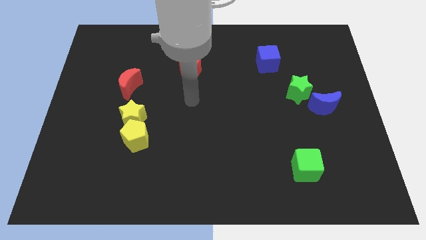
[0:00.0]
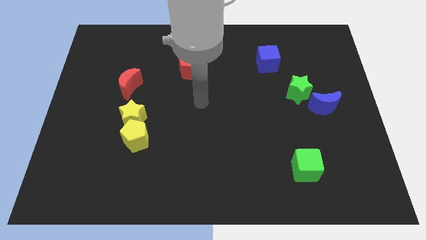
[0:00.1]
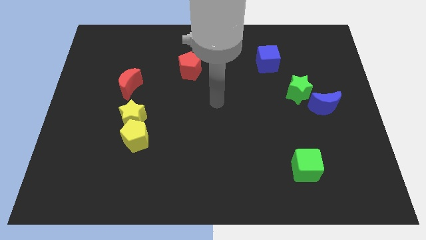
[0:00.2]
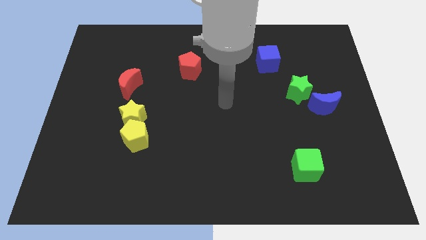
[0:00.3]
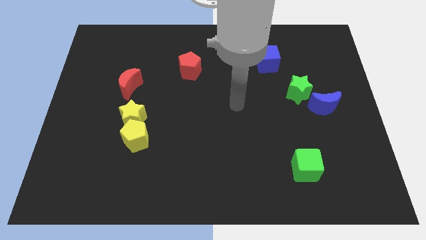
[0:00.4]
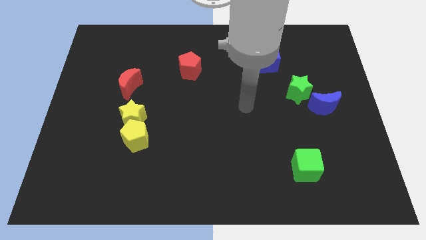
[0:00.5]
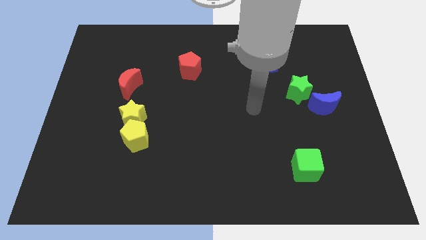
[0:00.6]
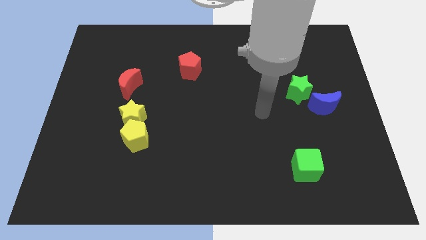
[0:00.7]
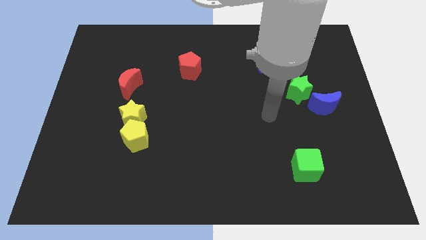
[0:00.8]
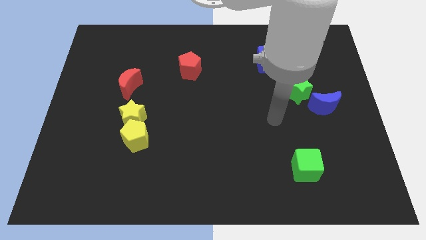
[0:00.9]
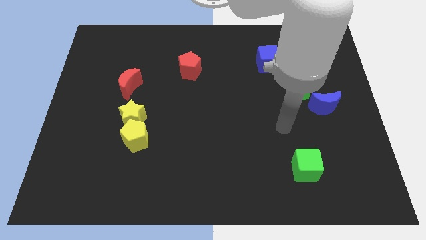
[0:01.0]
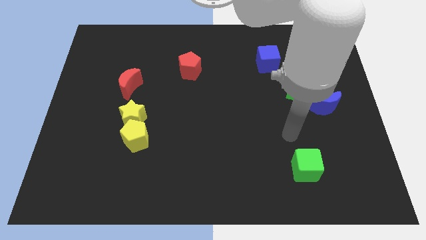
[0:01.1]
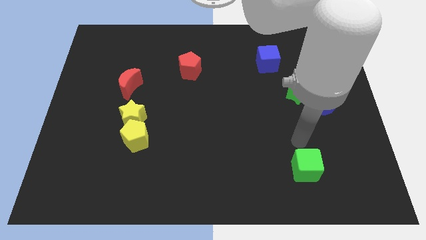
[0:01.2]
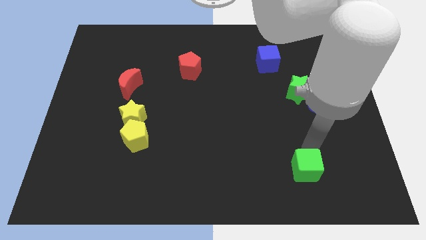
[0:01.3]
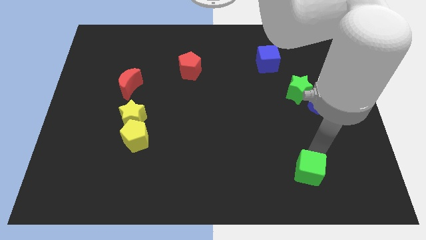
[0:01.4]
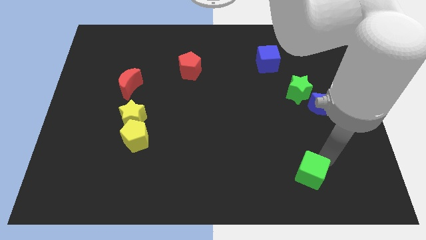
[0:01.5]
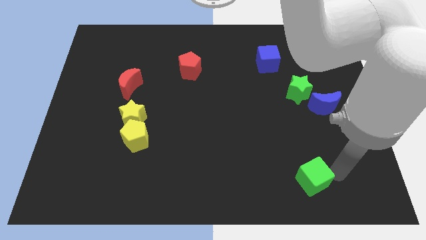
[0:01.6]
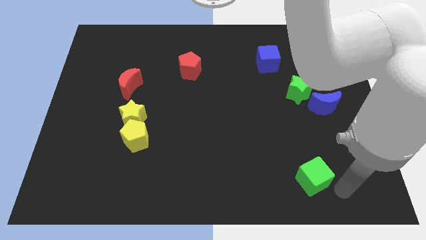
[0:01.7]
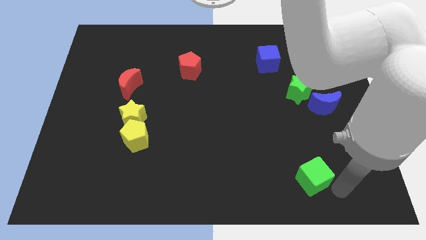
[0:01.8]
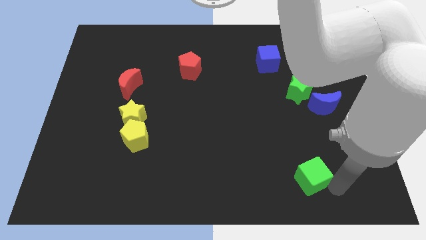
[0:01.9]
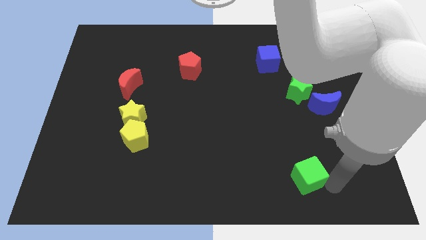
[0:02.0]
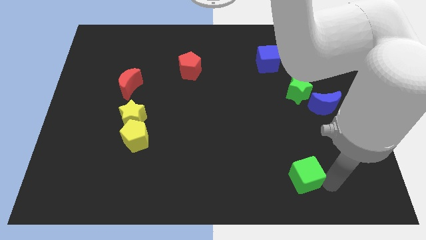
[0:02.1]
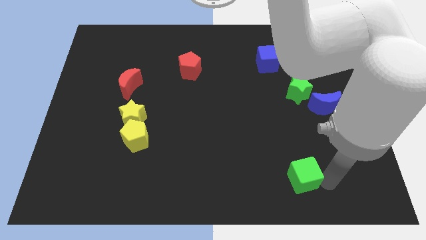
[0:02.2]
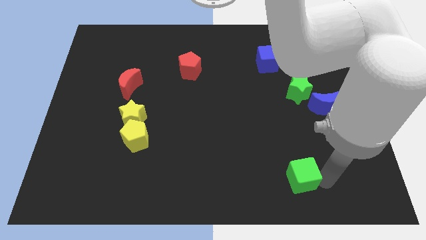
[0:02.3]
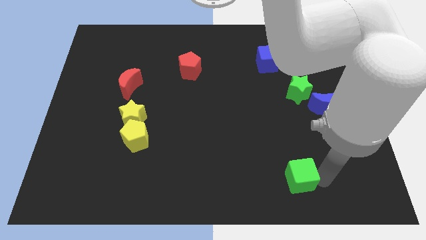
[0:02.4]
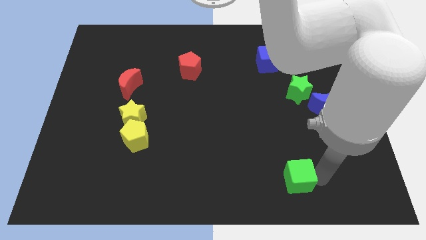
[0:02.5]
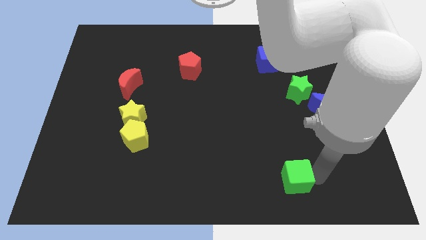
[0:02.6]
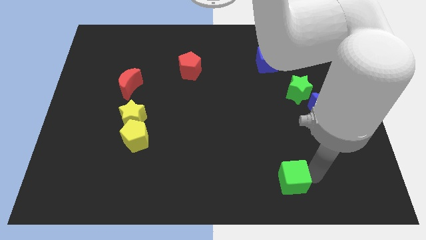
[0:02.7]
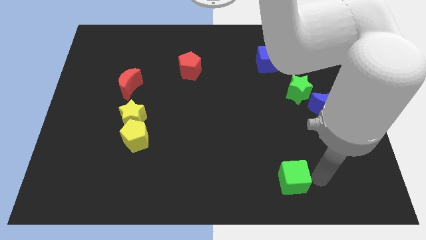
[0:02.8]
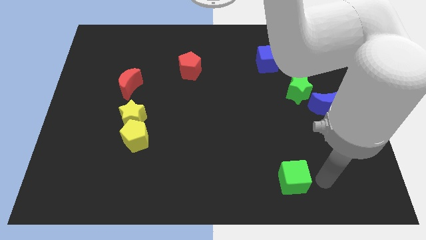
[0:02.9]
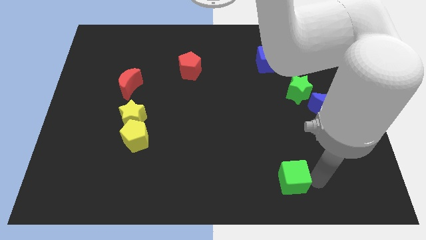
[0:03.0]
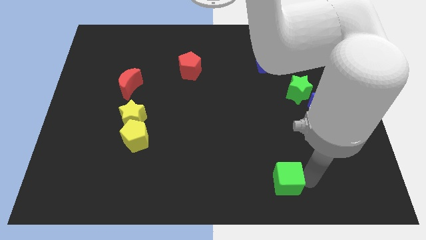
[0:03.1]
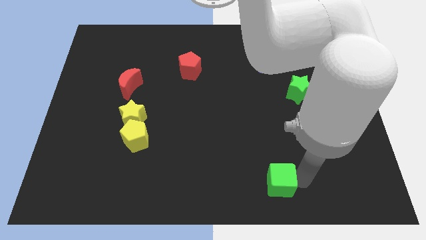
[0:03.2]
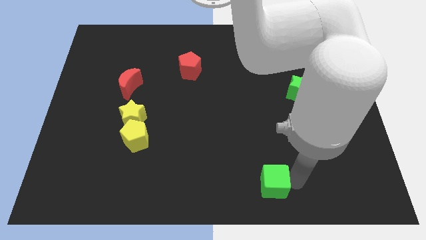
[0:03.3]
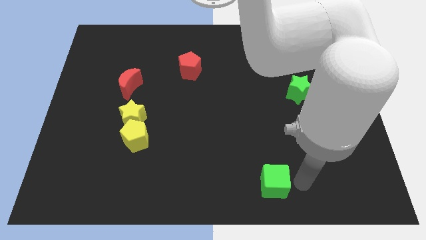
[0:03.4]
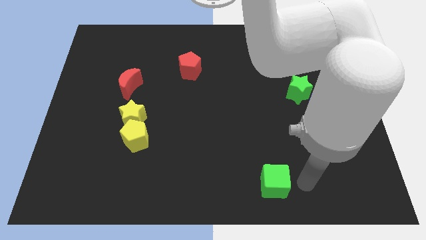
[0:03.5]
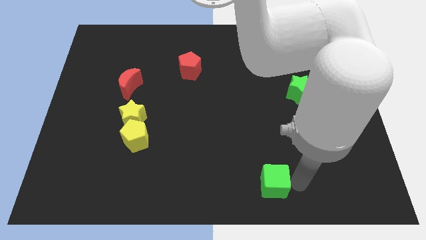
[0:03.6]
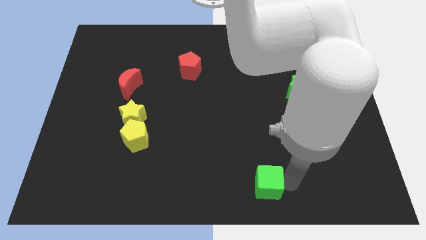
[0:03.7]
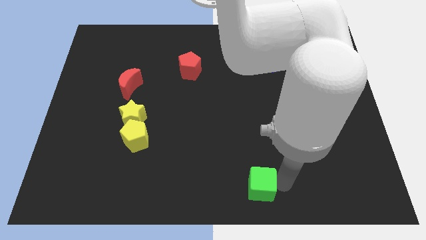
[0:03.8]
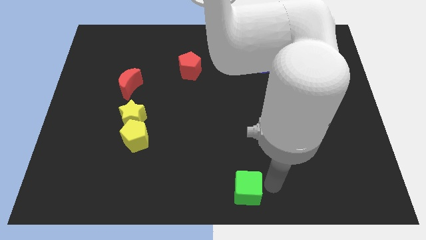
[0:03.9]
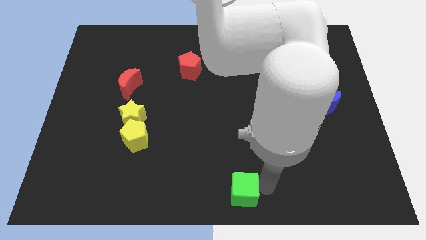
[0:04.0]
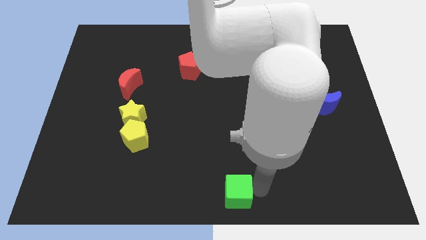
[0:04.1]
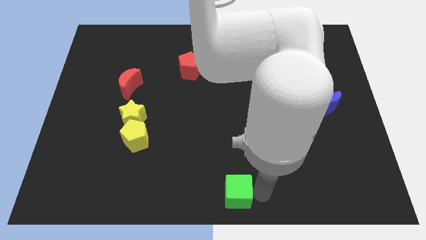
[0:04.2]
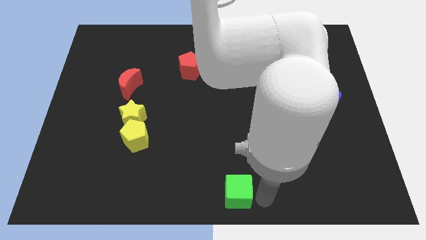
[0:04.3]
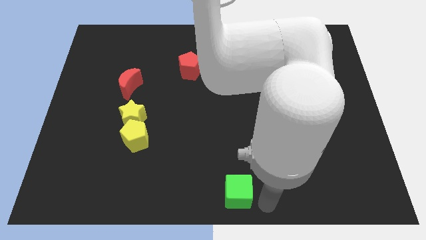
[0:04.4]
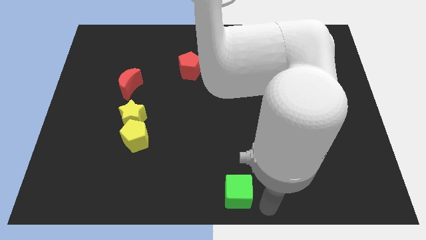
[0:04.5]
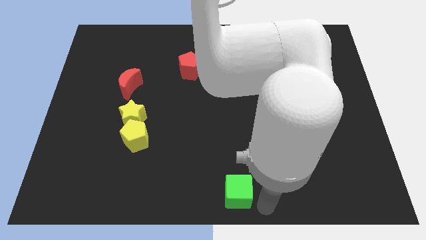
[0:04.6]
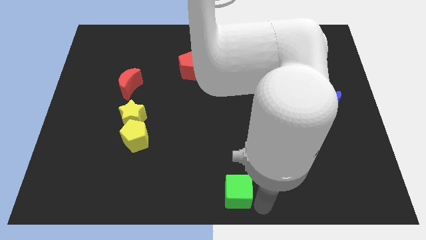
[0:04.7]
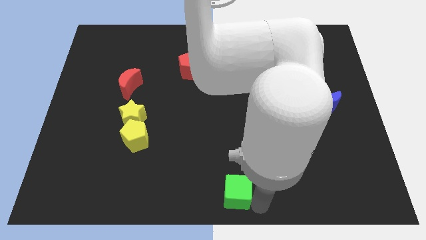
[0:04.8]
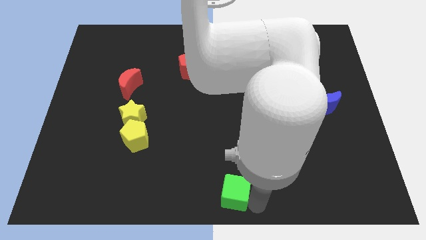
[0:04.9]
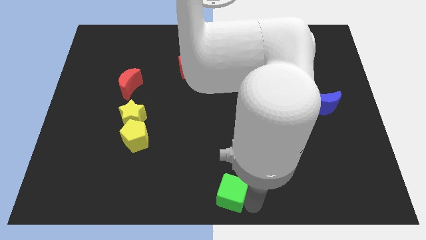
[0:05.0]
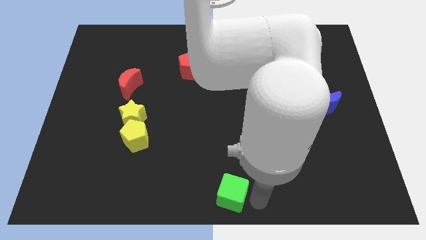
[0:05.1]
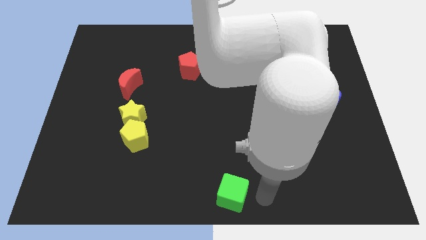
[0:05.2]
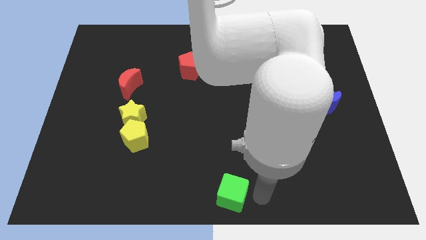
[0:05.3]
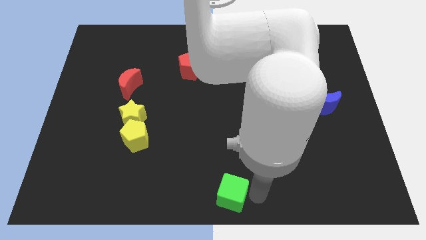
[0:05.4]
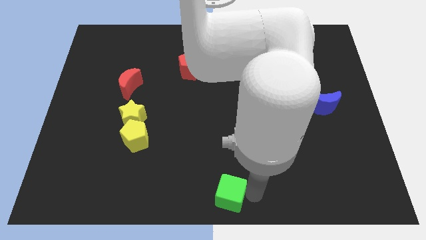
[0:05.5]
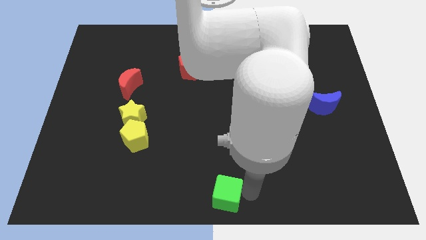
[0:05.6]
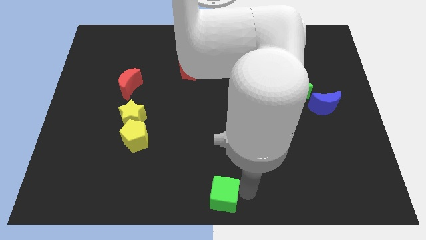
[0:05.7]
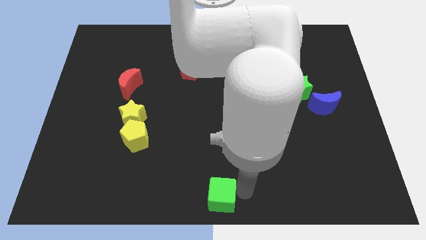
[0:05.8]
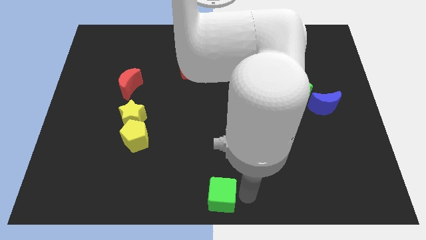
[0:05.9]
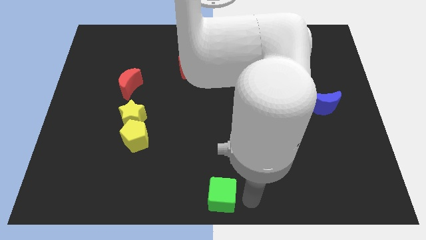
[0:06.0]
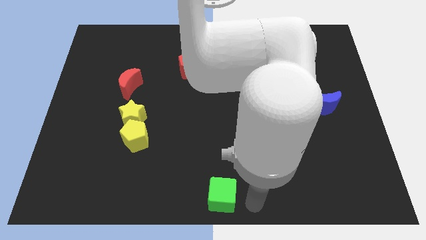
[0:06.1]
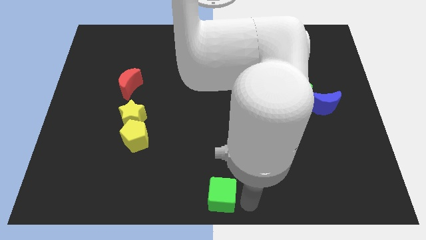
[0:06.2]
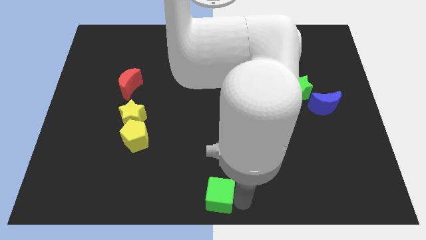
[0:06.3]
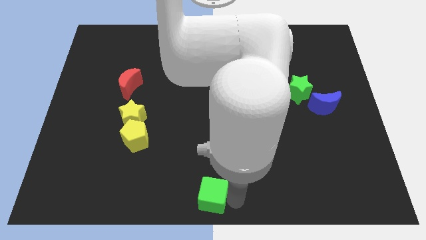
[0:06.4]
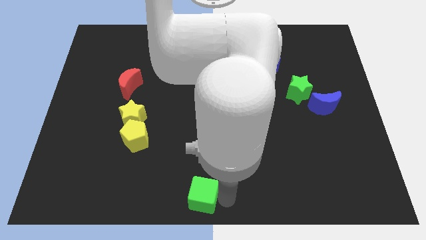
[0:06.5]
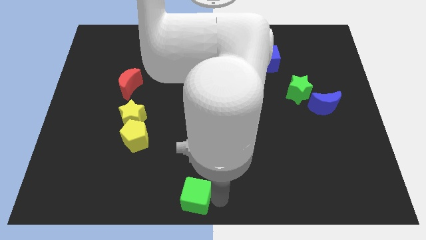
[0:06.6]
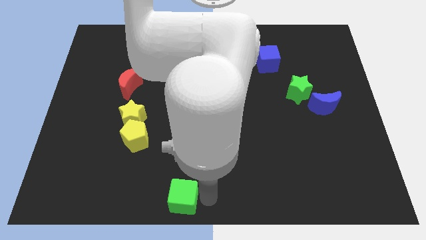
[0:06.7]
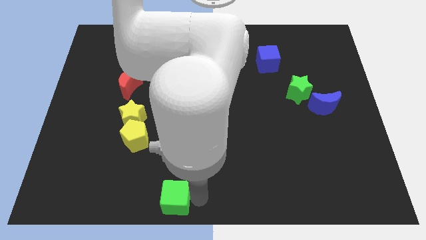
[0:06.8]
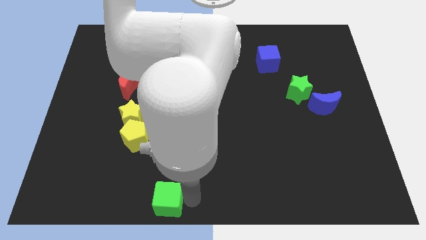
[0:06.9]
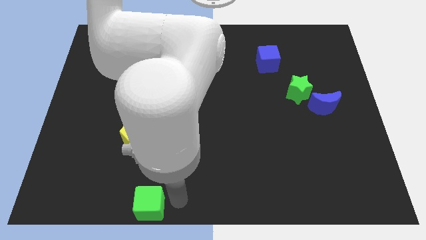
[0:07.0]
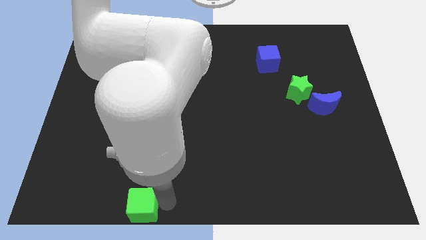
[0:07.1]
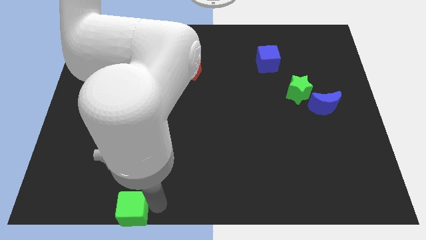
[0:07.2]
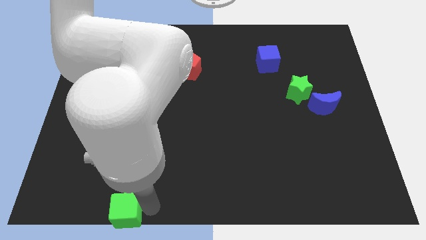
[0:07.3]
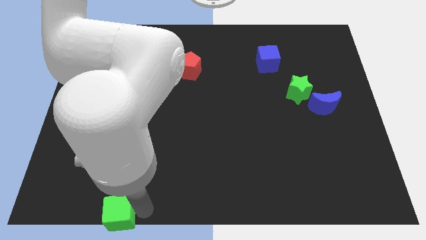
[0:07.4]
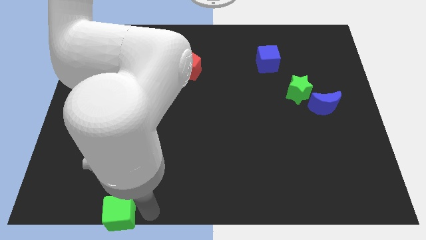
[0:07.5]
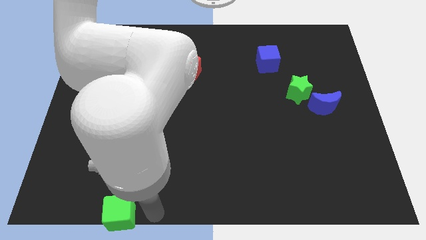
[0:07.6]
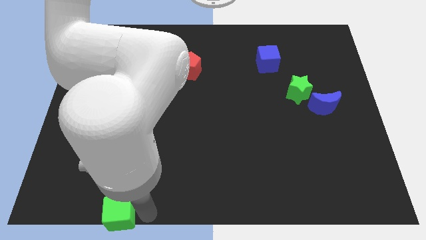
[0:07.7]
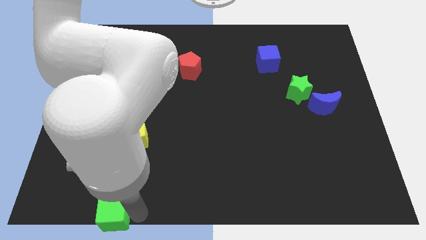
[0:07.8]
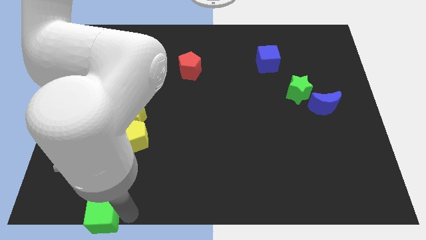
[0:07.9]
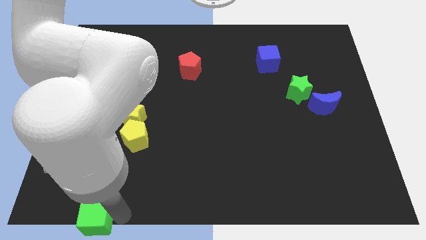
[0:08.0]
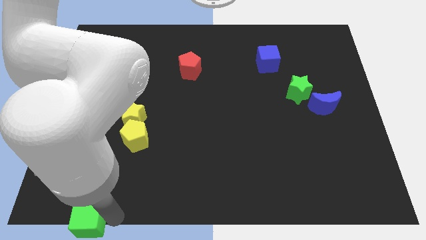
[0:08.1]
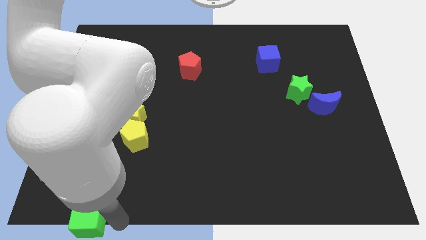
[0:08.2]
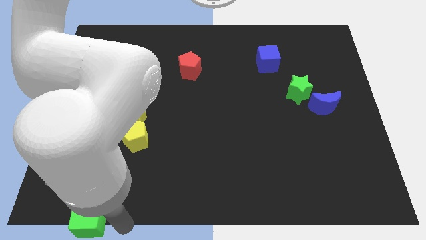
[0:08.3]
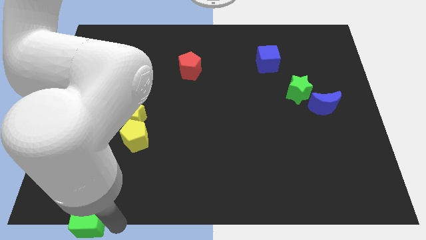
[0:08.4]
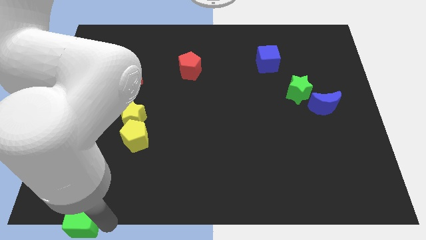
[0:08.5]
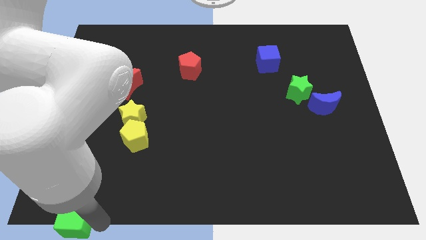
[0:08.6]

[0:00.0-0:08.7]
put the green cube to the bottom left of the board
